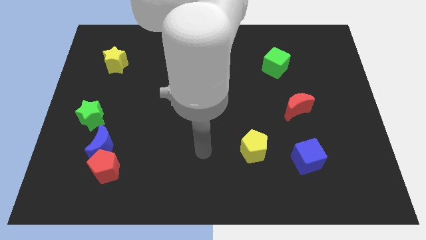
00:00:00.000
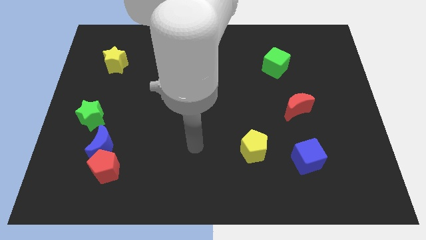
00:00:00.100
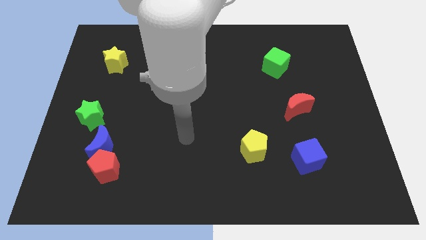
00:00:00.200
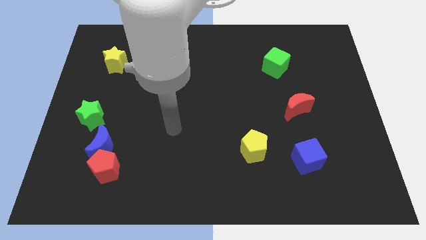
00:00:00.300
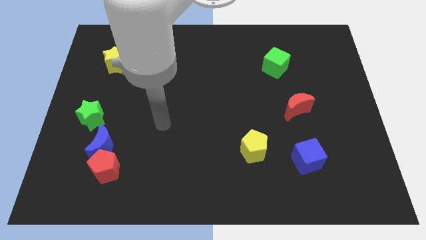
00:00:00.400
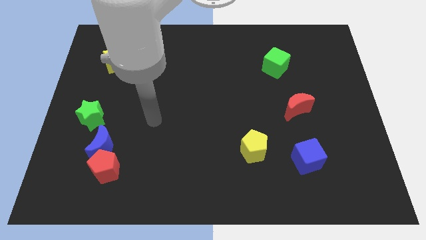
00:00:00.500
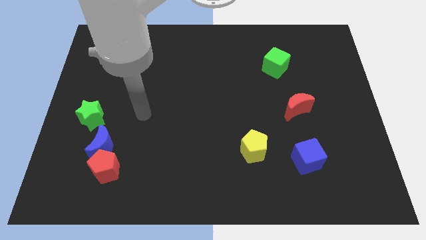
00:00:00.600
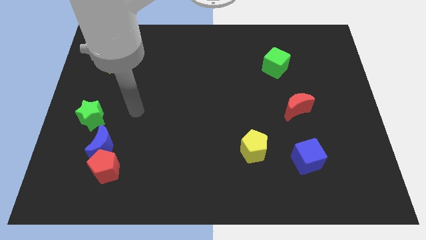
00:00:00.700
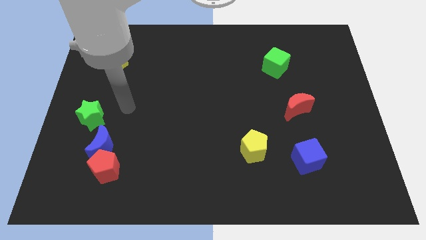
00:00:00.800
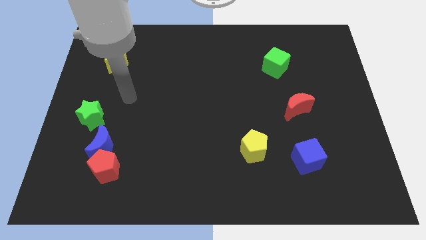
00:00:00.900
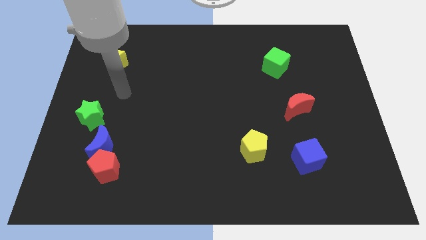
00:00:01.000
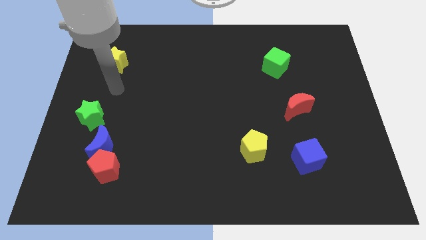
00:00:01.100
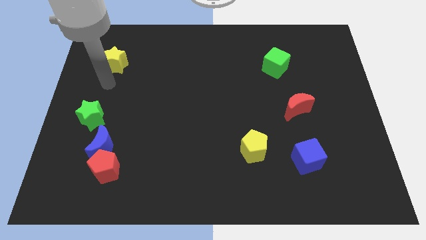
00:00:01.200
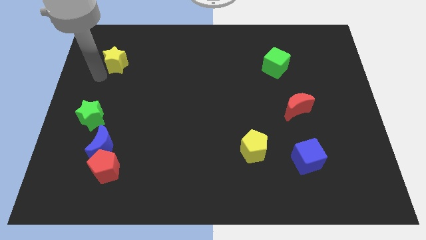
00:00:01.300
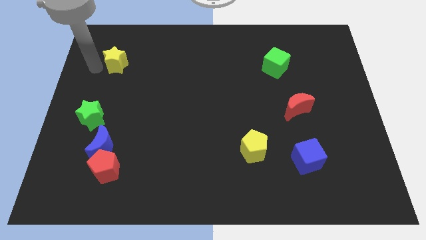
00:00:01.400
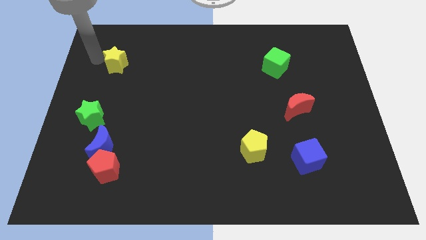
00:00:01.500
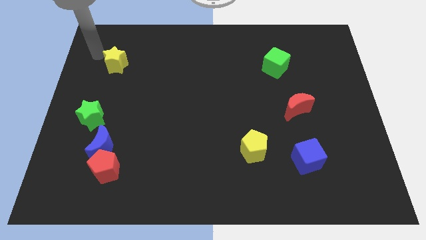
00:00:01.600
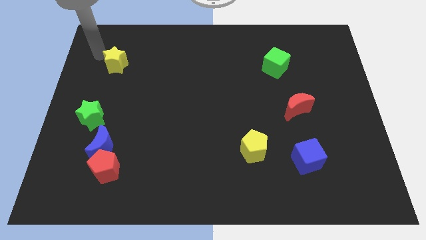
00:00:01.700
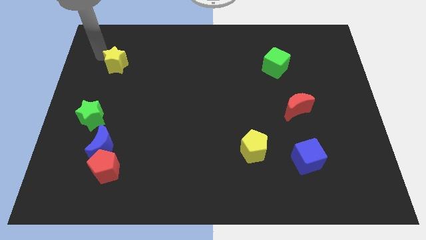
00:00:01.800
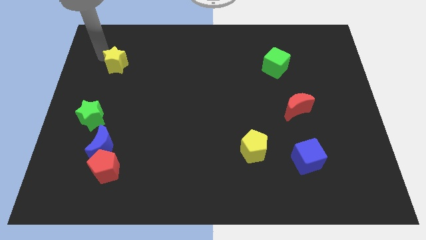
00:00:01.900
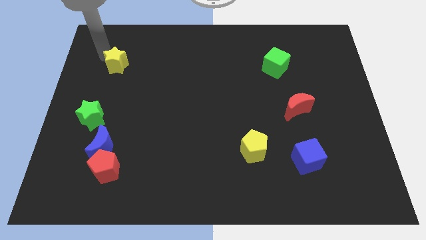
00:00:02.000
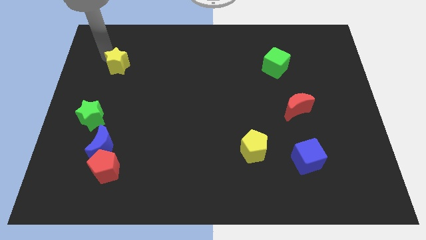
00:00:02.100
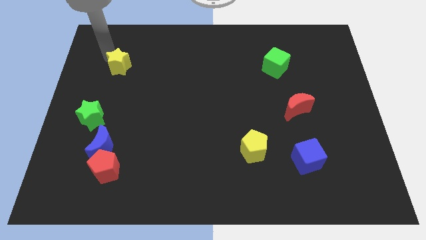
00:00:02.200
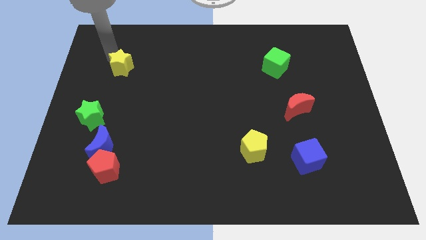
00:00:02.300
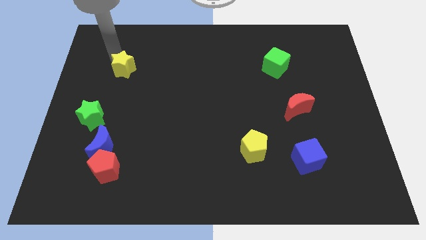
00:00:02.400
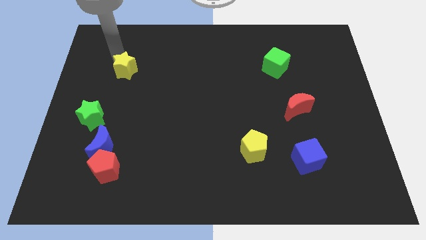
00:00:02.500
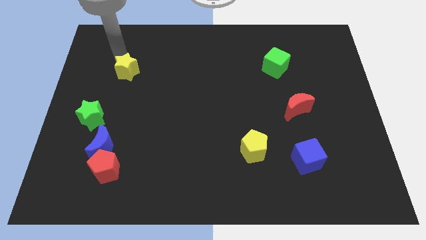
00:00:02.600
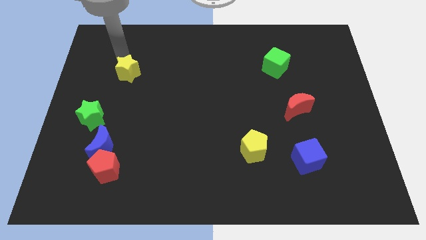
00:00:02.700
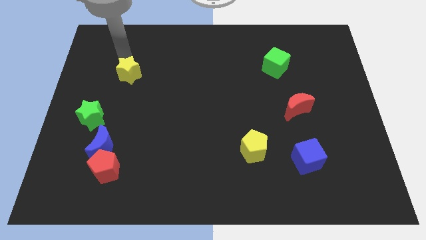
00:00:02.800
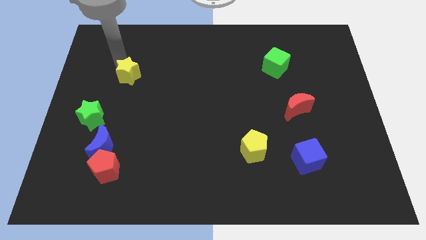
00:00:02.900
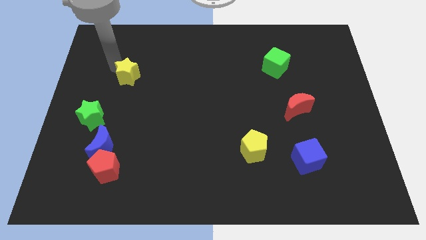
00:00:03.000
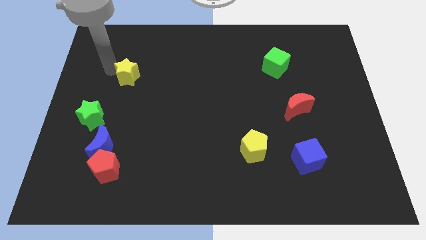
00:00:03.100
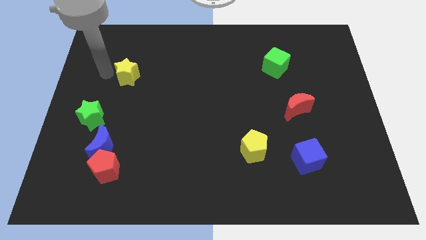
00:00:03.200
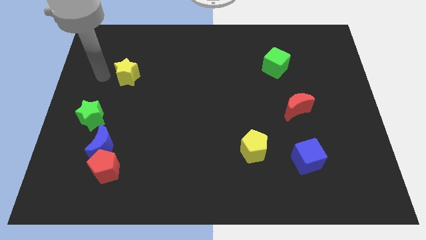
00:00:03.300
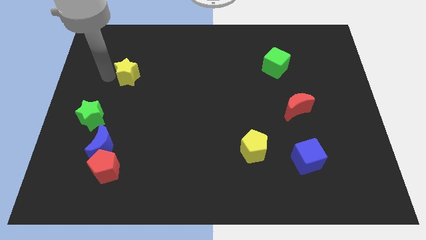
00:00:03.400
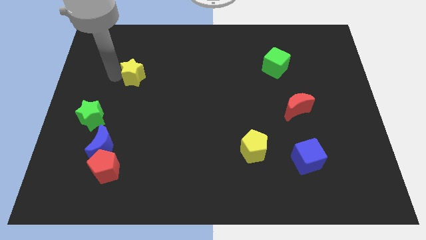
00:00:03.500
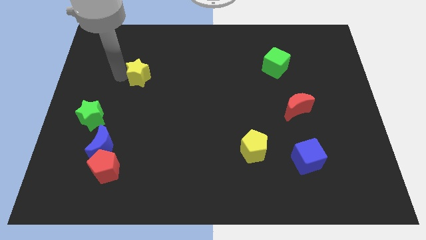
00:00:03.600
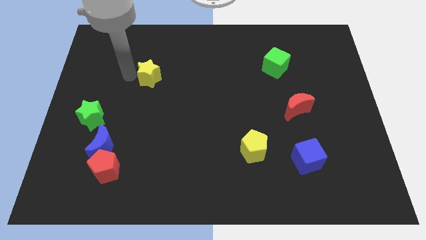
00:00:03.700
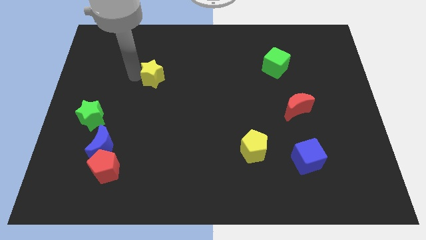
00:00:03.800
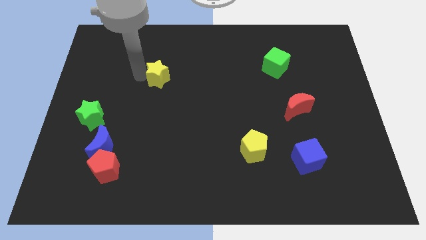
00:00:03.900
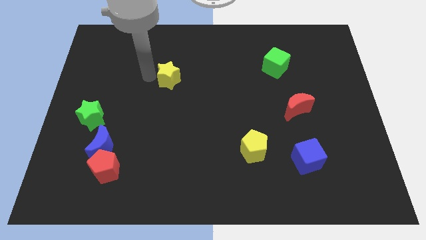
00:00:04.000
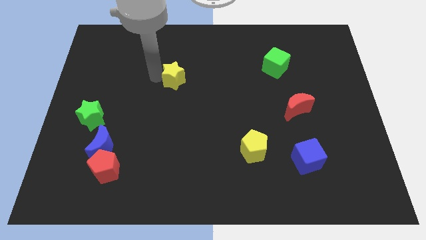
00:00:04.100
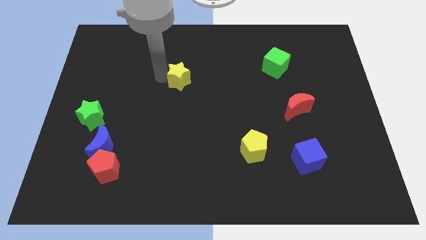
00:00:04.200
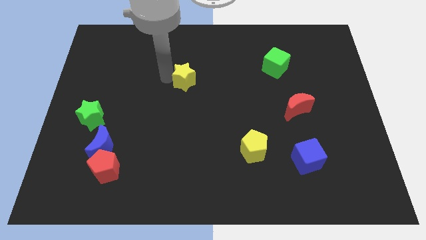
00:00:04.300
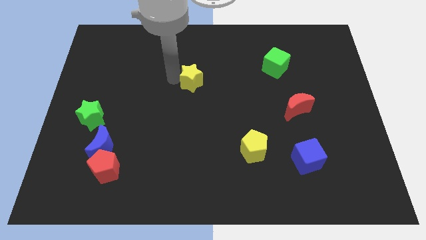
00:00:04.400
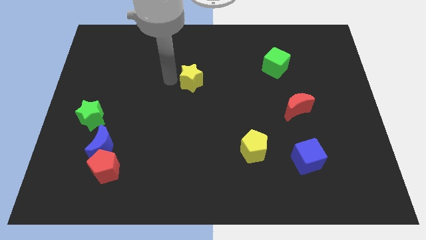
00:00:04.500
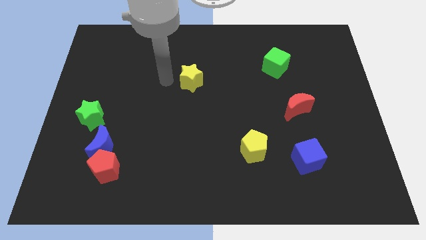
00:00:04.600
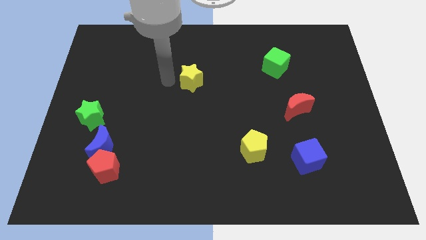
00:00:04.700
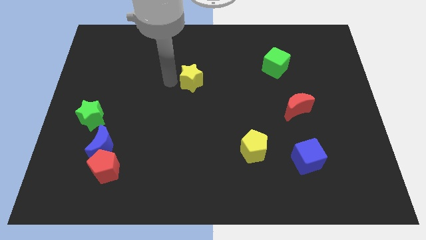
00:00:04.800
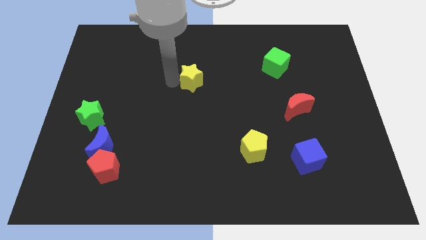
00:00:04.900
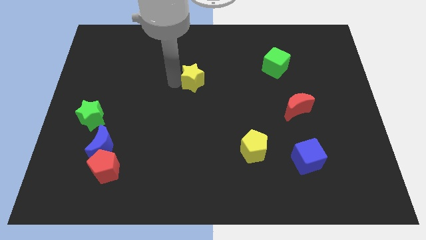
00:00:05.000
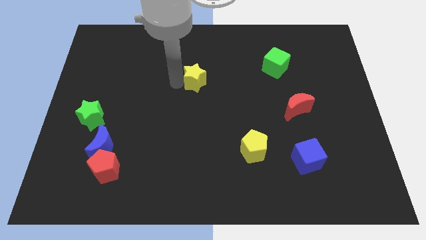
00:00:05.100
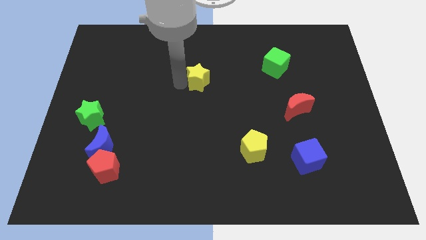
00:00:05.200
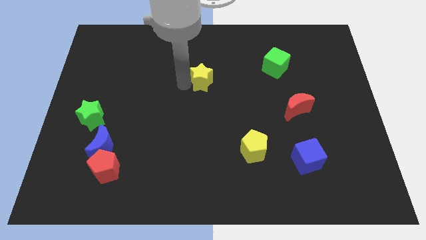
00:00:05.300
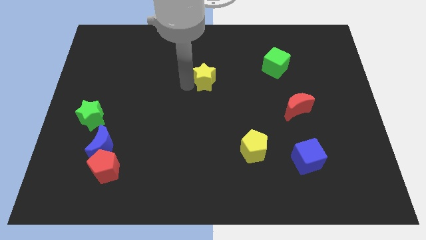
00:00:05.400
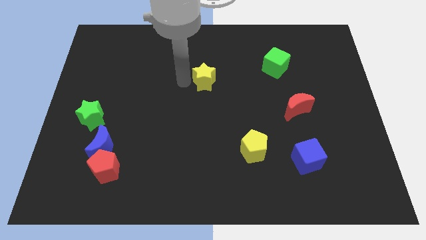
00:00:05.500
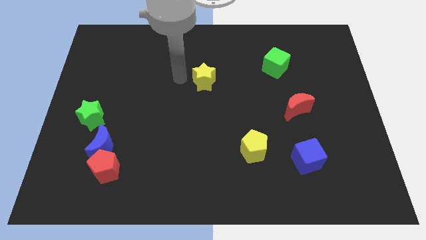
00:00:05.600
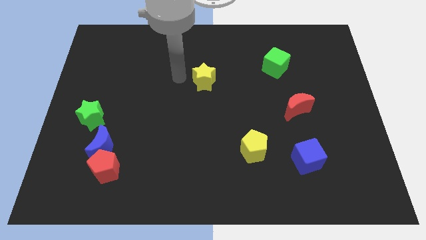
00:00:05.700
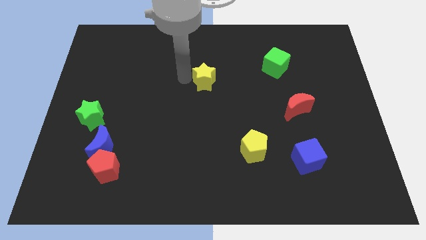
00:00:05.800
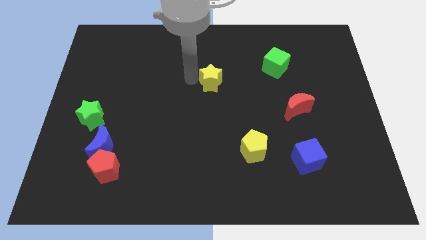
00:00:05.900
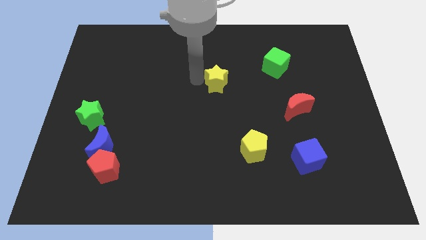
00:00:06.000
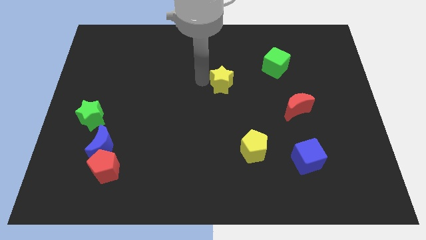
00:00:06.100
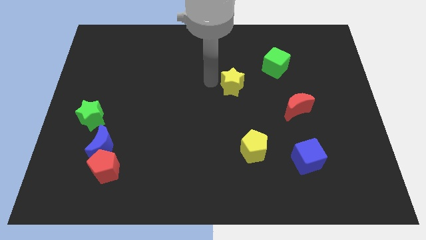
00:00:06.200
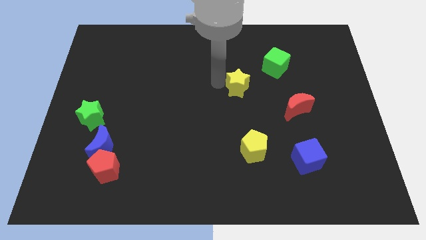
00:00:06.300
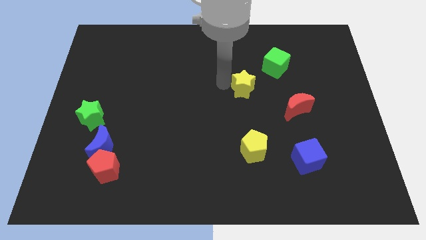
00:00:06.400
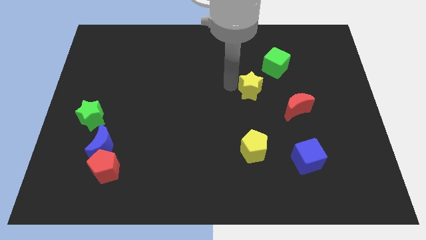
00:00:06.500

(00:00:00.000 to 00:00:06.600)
push the yellow star to the top left of the red moon
